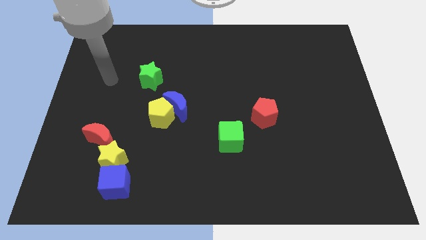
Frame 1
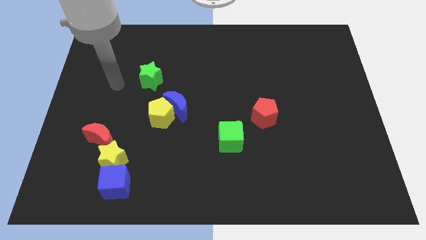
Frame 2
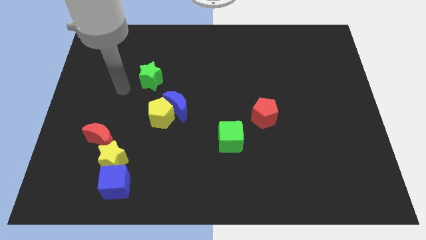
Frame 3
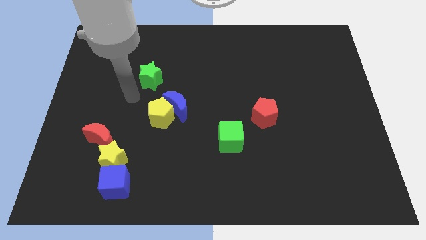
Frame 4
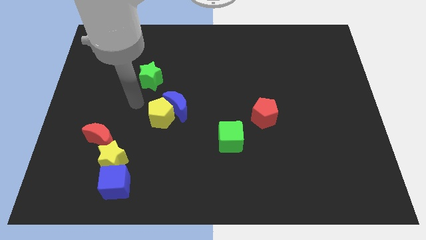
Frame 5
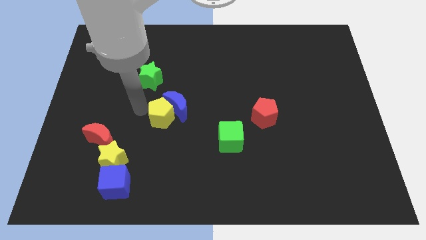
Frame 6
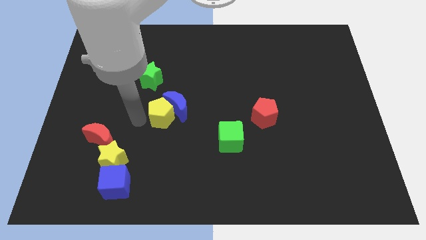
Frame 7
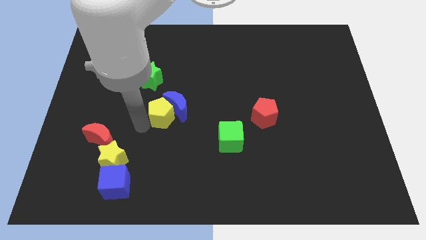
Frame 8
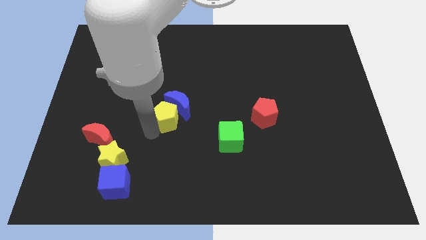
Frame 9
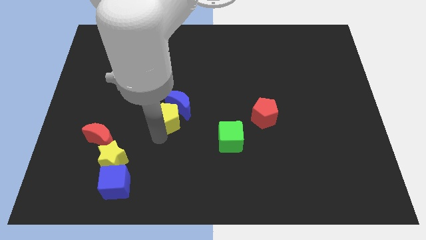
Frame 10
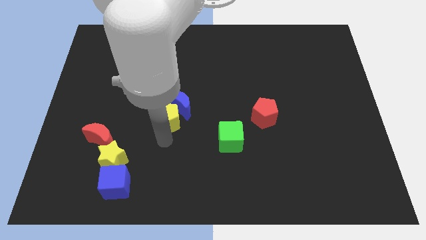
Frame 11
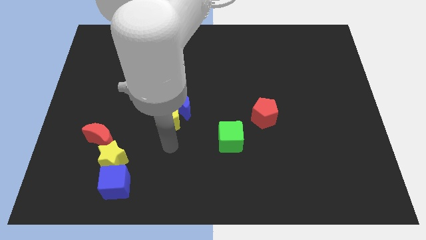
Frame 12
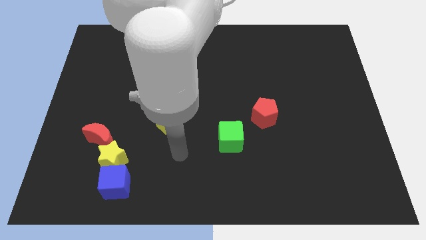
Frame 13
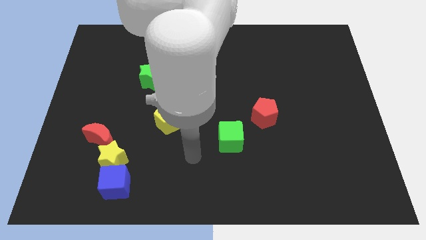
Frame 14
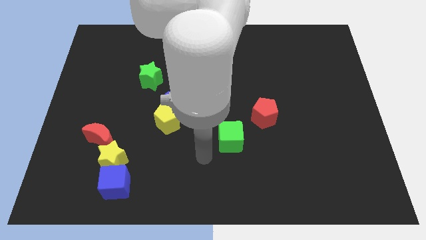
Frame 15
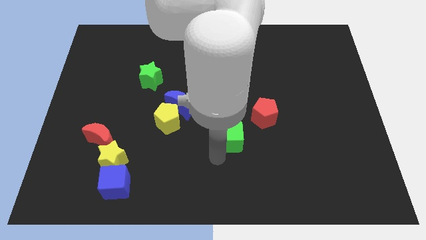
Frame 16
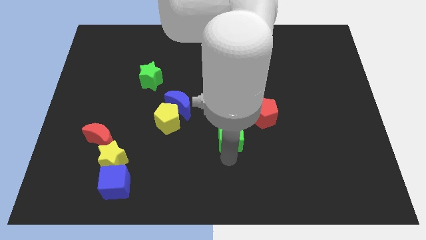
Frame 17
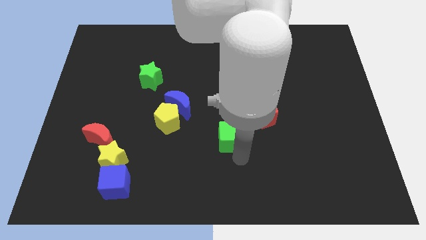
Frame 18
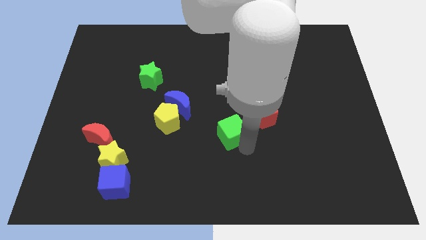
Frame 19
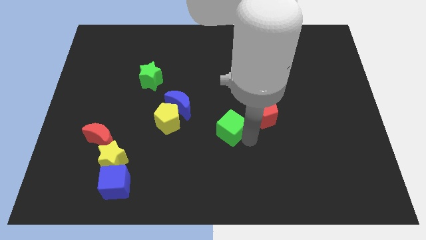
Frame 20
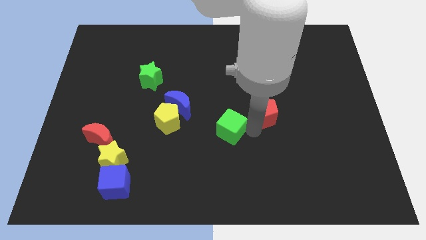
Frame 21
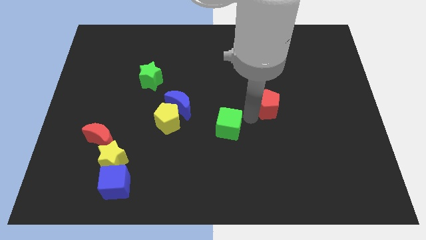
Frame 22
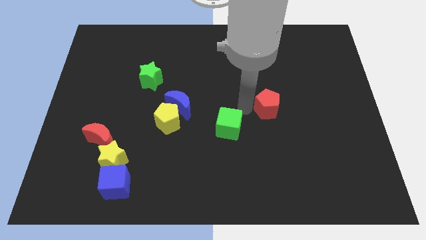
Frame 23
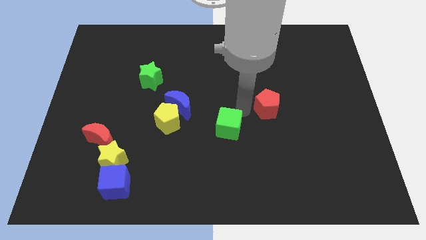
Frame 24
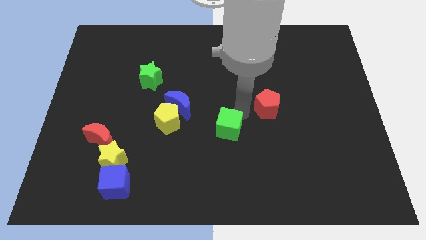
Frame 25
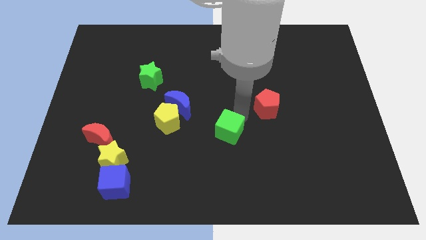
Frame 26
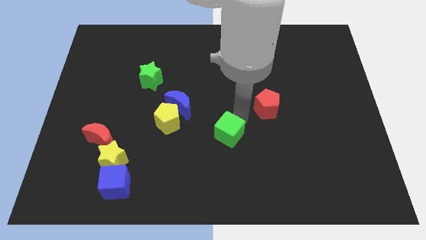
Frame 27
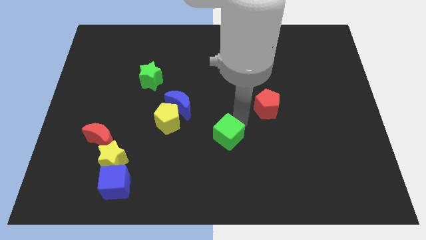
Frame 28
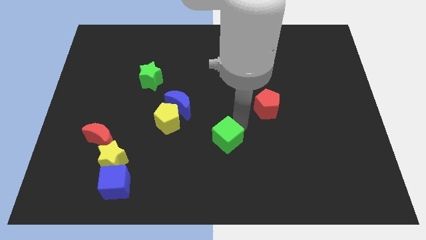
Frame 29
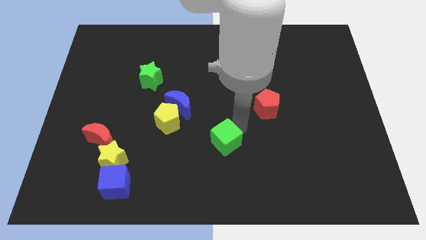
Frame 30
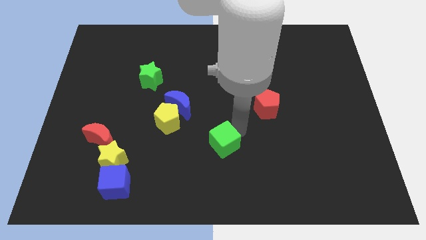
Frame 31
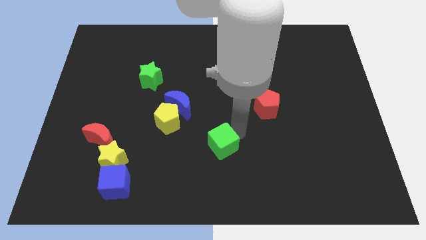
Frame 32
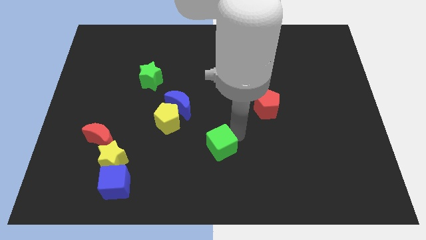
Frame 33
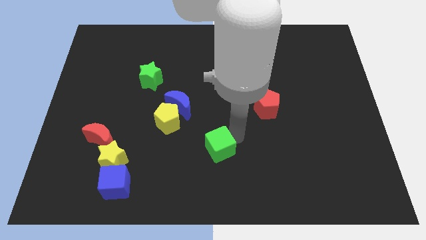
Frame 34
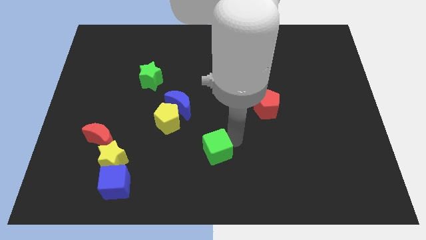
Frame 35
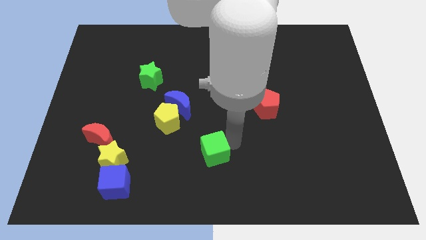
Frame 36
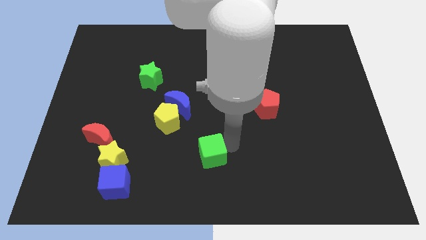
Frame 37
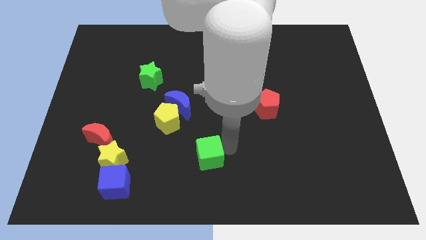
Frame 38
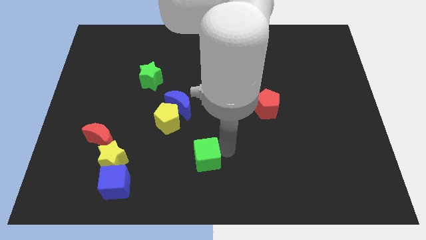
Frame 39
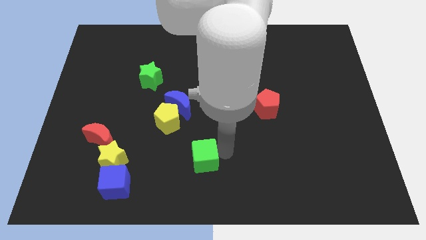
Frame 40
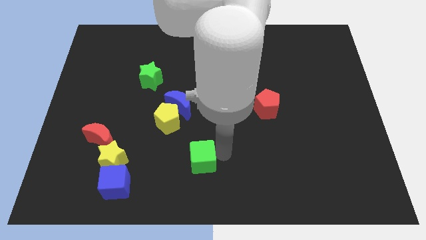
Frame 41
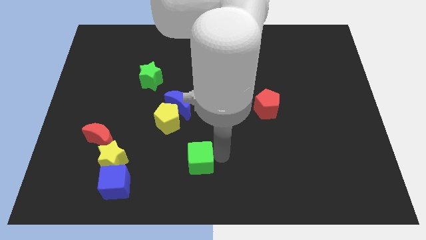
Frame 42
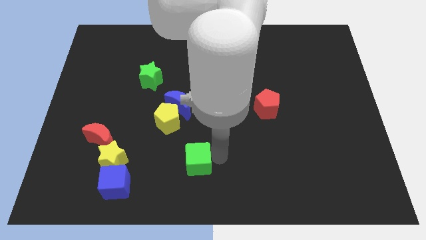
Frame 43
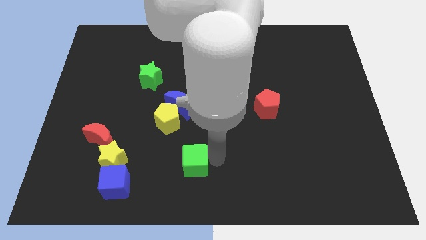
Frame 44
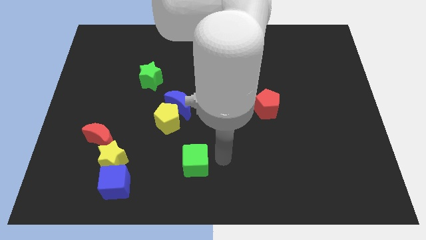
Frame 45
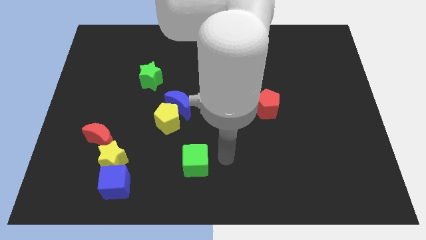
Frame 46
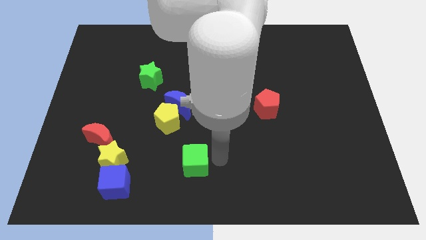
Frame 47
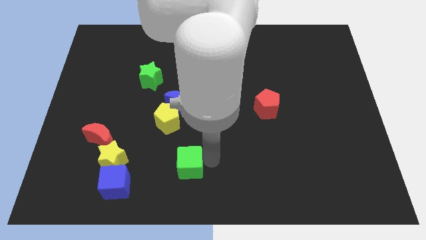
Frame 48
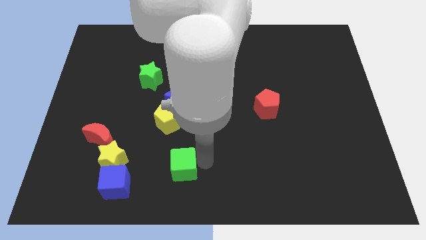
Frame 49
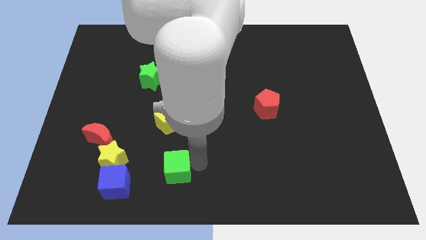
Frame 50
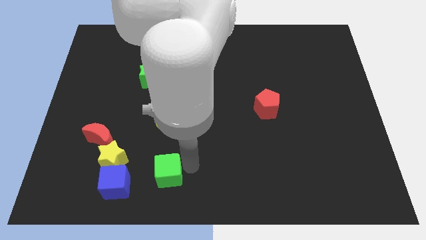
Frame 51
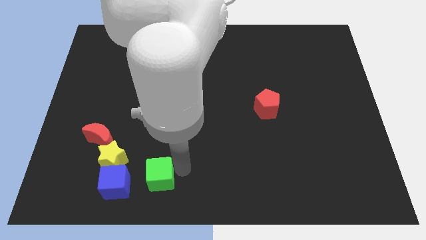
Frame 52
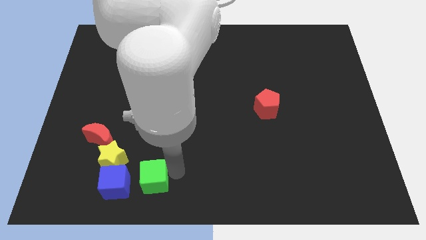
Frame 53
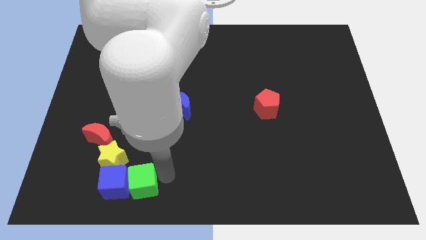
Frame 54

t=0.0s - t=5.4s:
push the green cube close to the blue cube

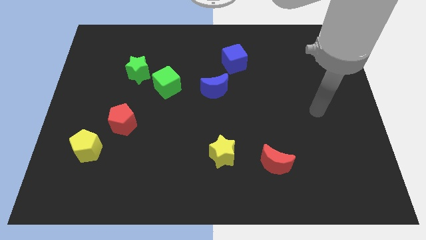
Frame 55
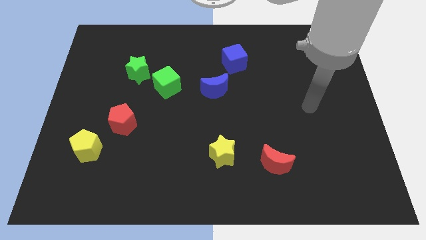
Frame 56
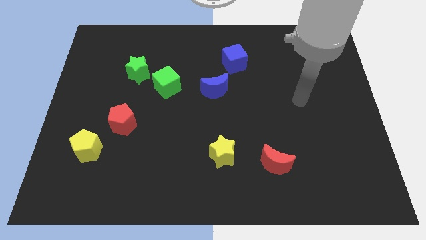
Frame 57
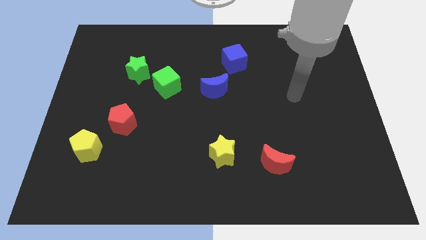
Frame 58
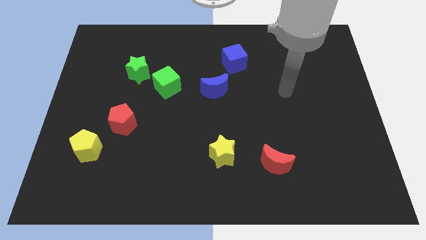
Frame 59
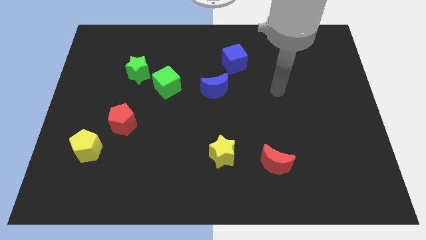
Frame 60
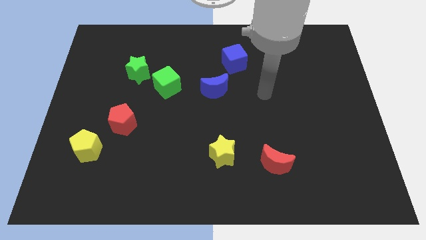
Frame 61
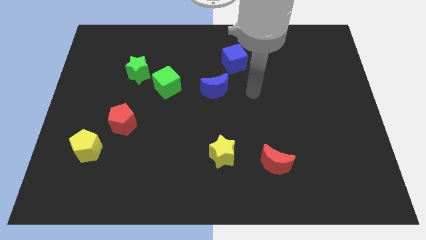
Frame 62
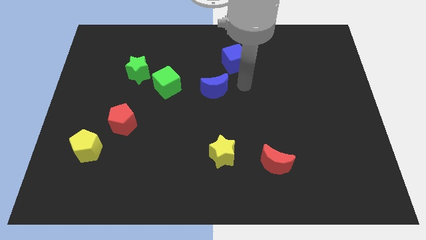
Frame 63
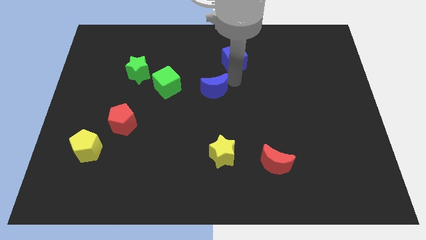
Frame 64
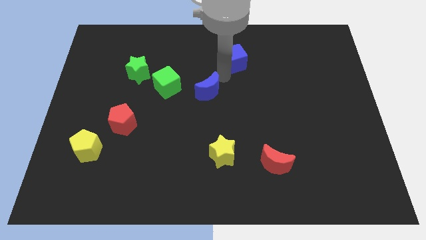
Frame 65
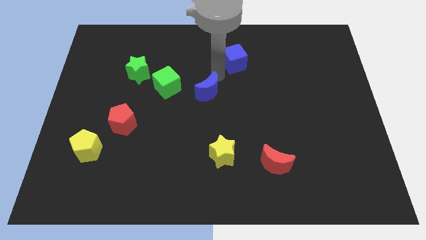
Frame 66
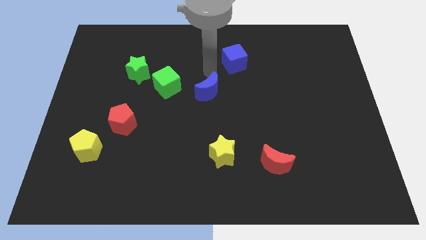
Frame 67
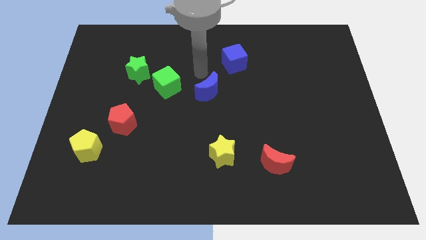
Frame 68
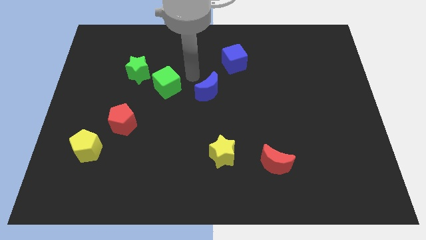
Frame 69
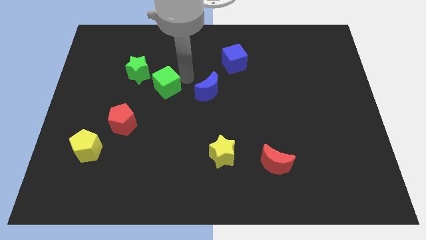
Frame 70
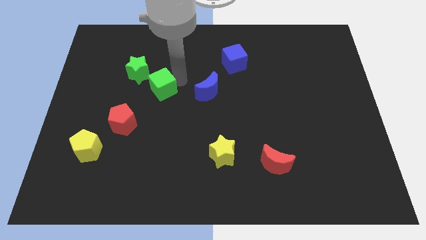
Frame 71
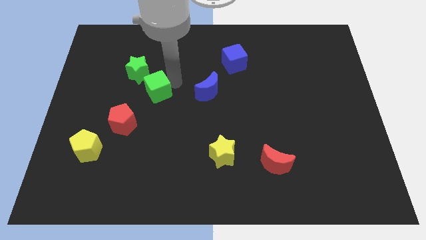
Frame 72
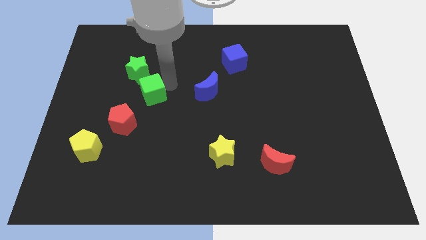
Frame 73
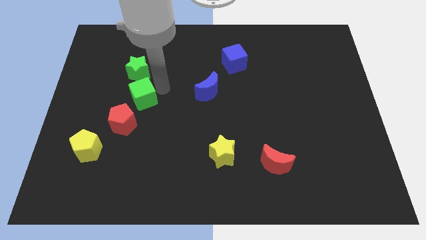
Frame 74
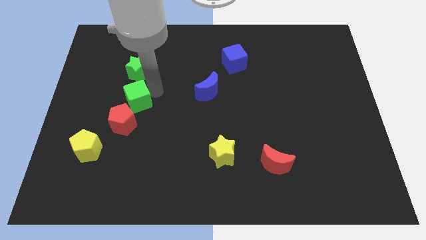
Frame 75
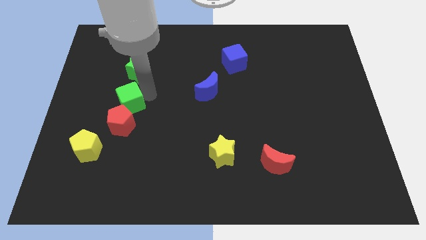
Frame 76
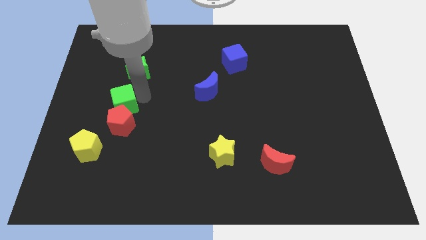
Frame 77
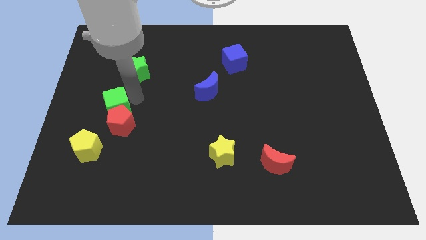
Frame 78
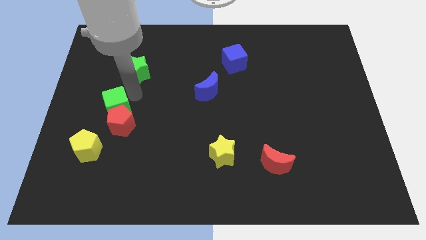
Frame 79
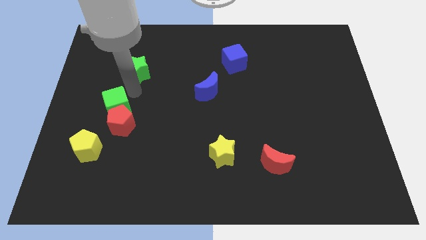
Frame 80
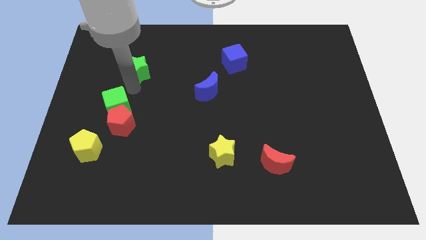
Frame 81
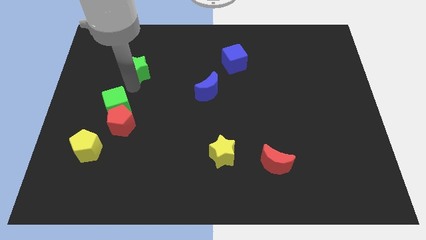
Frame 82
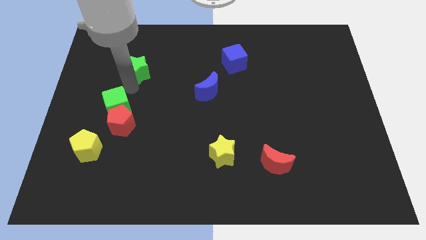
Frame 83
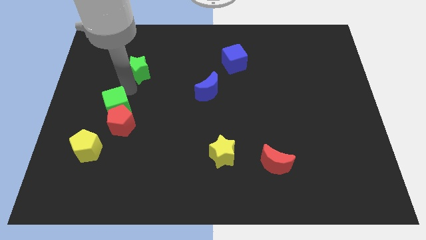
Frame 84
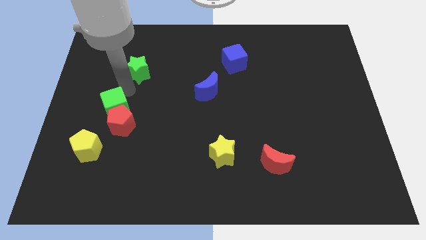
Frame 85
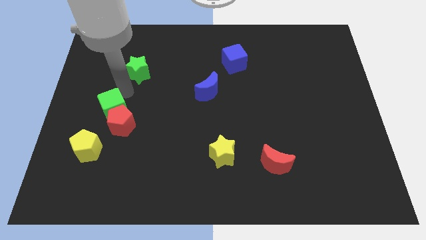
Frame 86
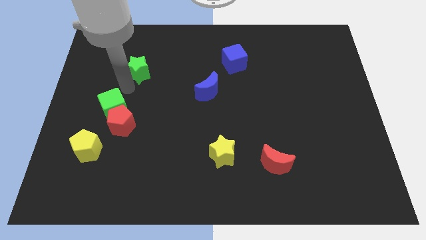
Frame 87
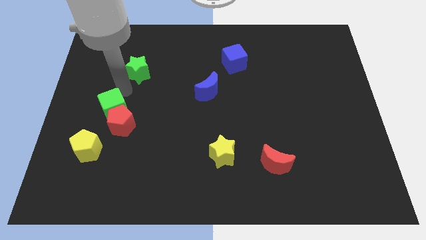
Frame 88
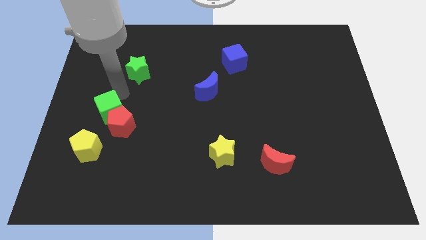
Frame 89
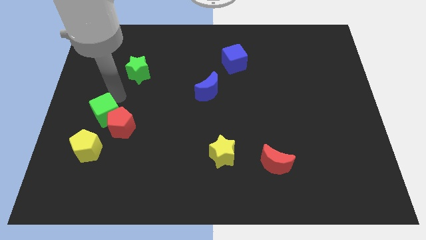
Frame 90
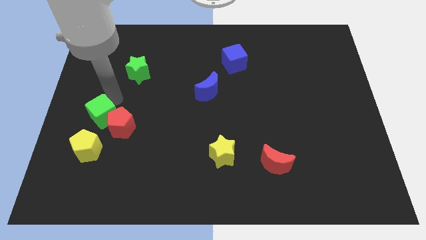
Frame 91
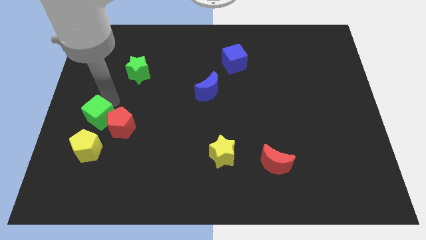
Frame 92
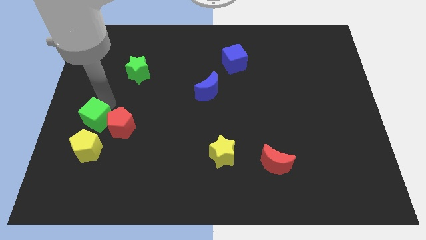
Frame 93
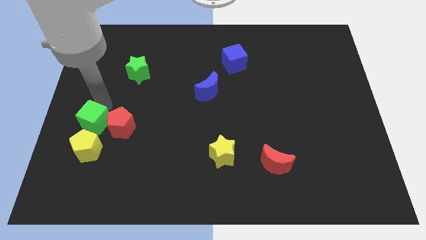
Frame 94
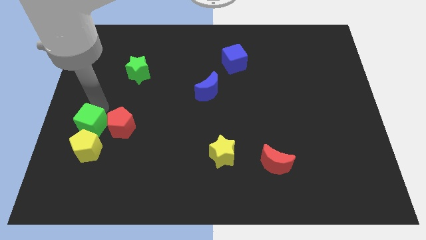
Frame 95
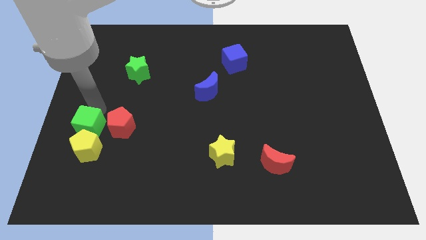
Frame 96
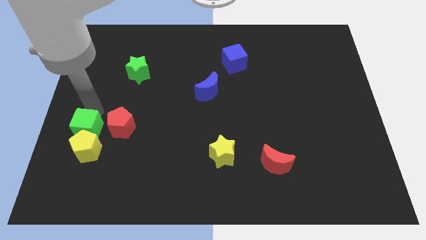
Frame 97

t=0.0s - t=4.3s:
move the green cube to the yellow pentagon
